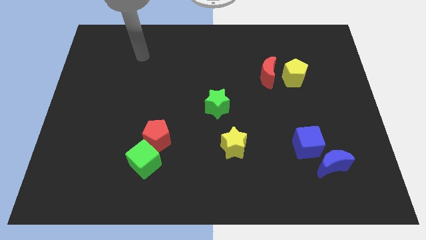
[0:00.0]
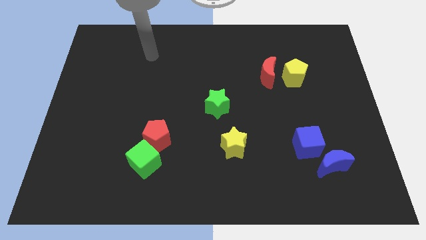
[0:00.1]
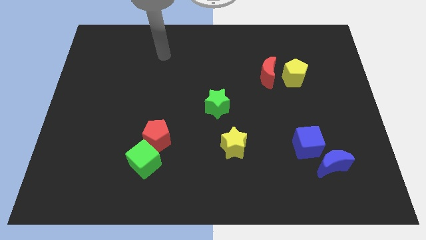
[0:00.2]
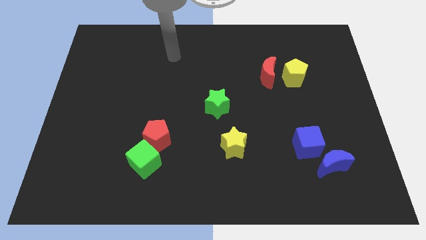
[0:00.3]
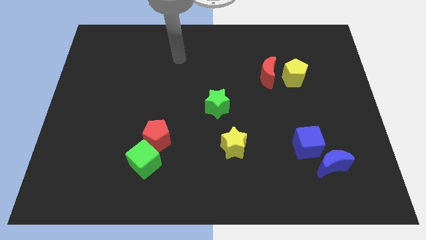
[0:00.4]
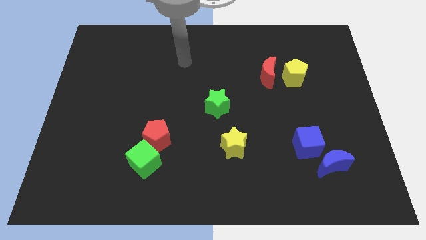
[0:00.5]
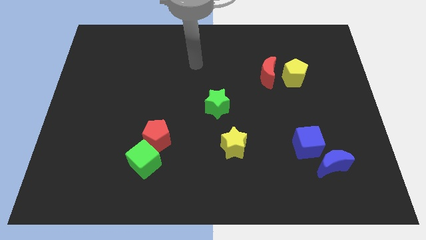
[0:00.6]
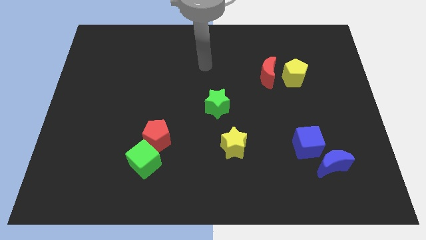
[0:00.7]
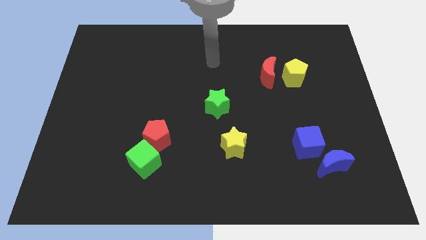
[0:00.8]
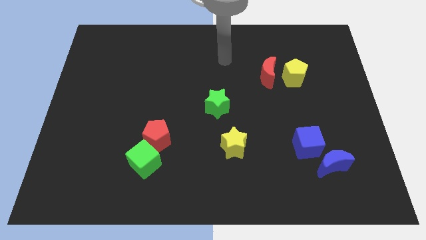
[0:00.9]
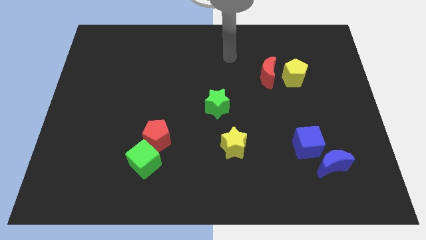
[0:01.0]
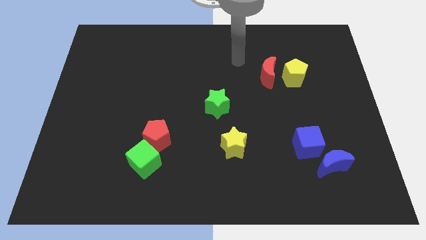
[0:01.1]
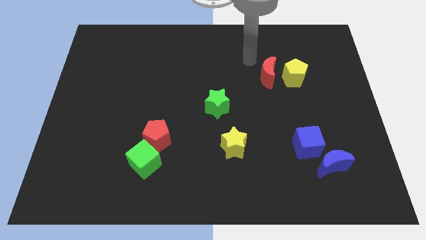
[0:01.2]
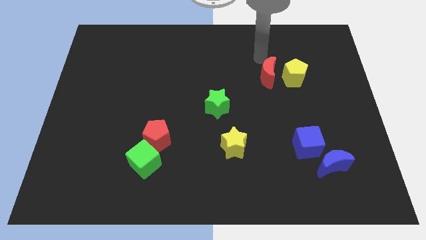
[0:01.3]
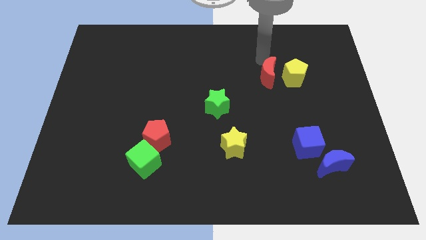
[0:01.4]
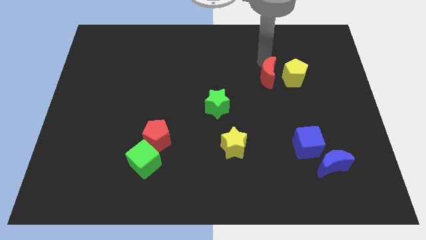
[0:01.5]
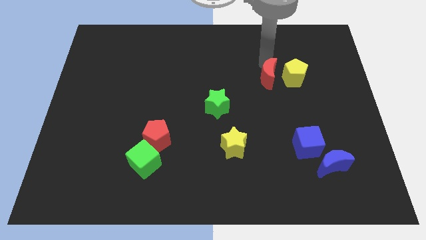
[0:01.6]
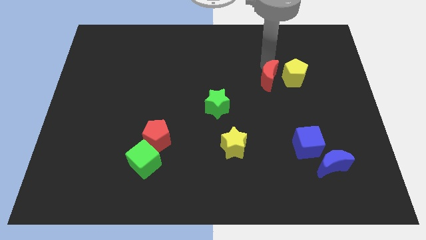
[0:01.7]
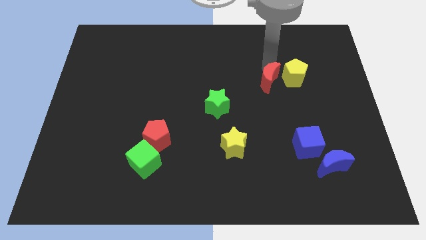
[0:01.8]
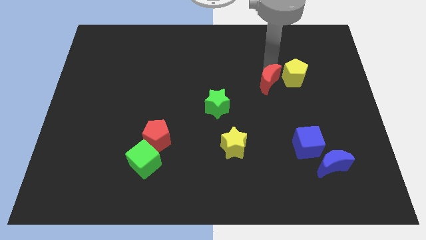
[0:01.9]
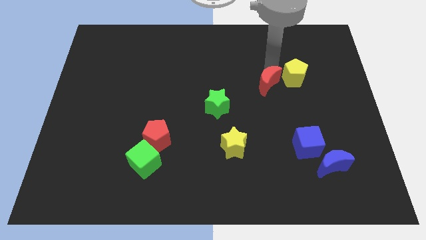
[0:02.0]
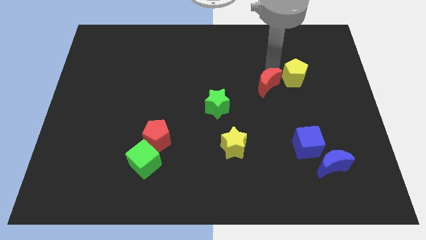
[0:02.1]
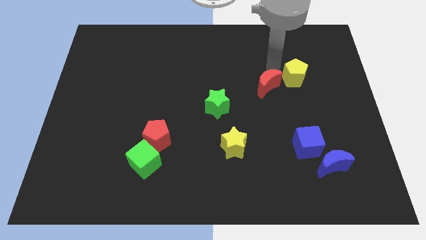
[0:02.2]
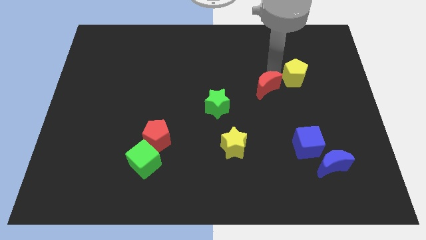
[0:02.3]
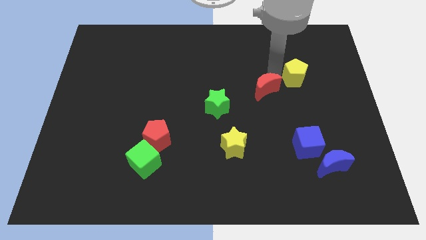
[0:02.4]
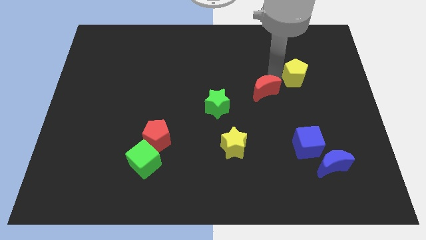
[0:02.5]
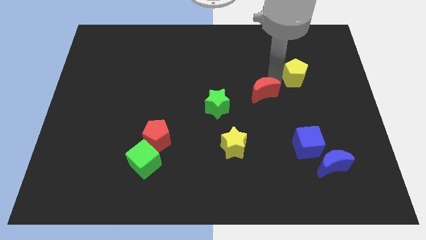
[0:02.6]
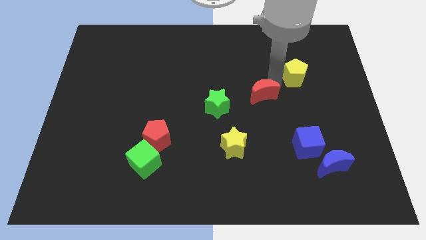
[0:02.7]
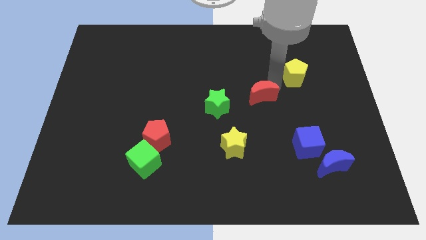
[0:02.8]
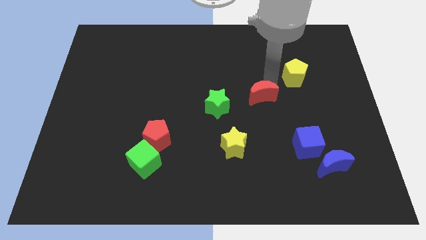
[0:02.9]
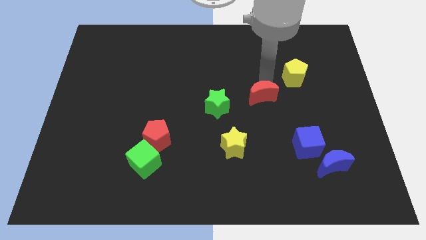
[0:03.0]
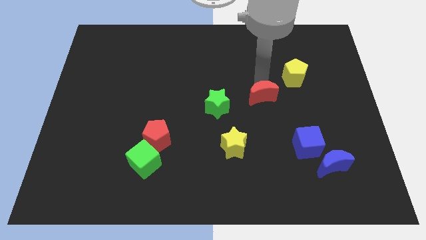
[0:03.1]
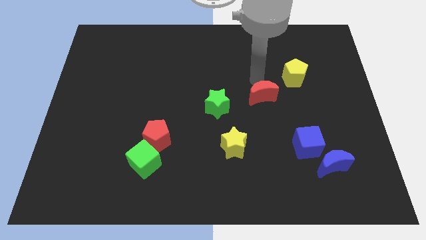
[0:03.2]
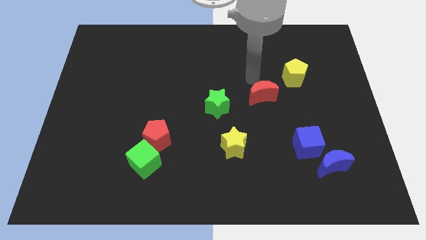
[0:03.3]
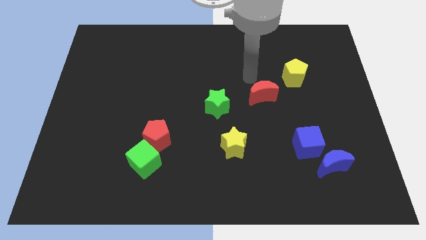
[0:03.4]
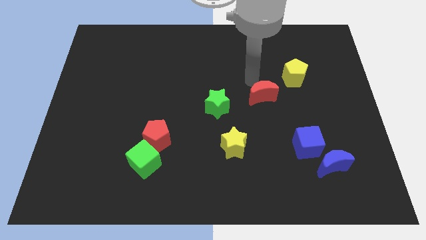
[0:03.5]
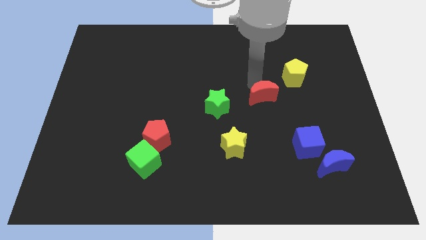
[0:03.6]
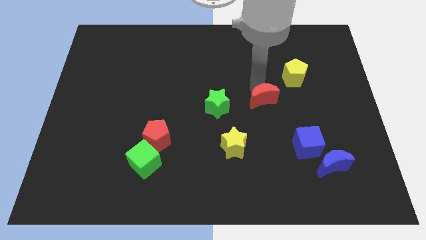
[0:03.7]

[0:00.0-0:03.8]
slide the red moon downwards slightly

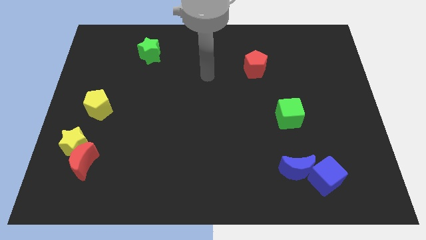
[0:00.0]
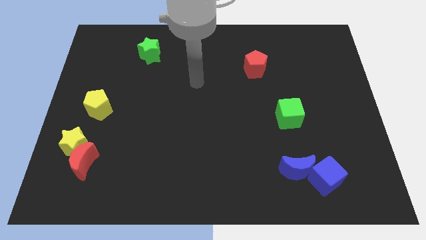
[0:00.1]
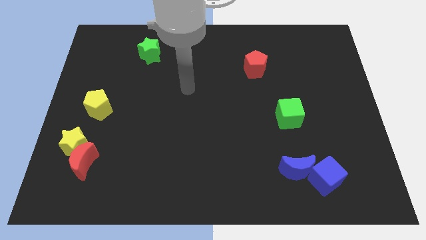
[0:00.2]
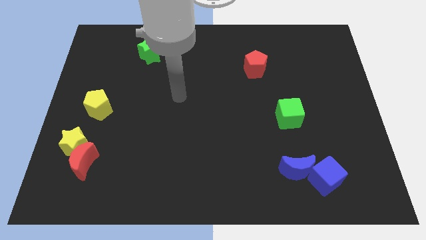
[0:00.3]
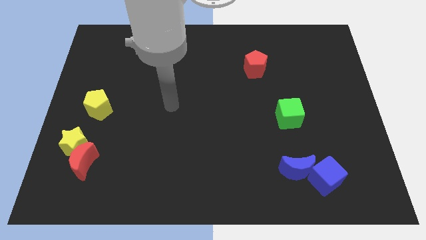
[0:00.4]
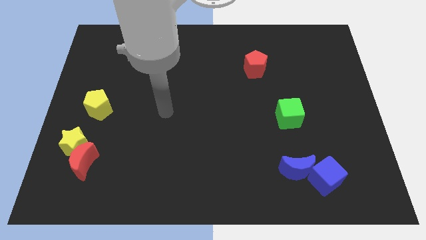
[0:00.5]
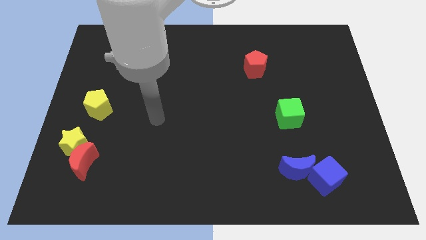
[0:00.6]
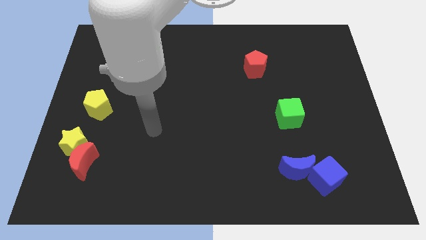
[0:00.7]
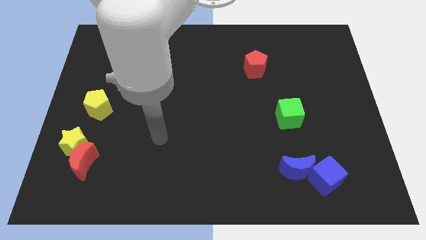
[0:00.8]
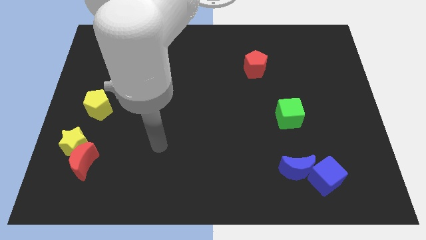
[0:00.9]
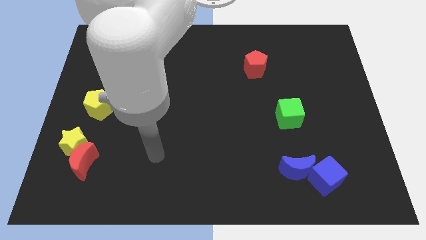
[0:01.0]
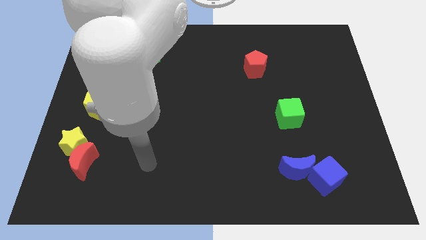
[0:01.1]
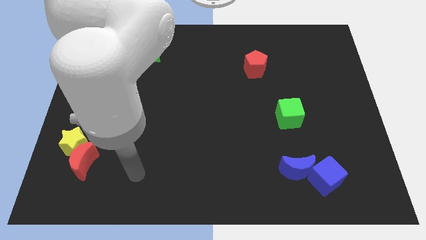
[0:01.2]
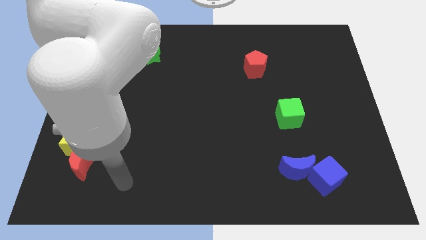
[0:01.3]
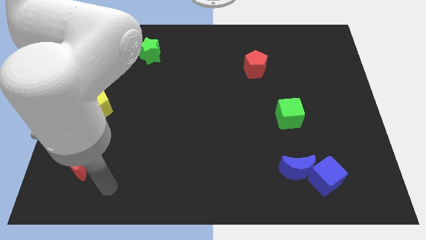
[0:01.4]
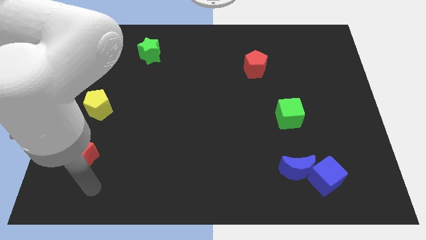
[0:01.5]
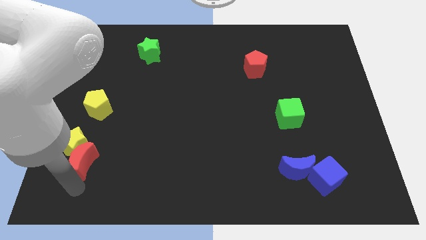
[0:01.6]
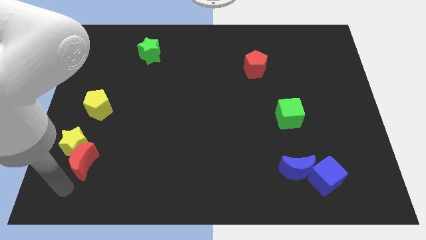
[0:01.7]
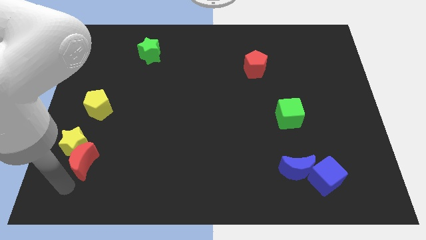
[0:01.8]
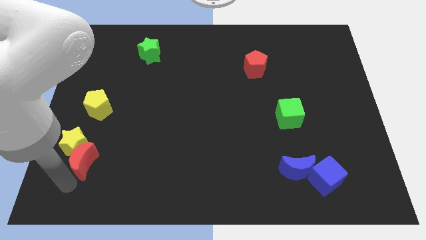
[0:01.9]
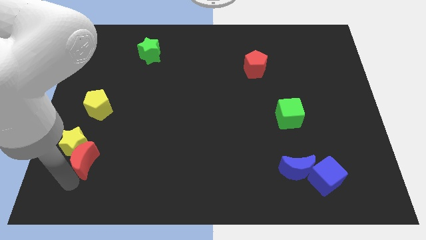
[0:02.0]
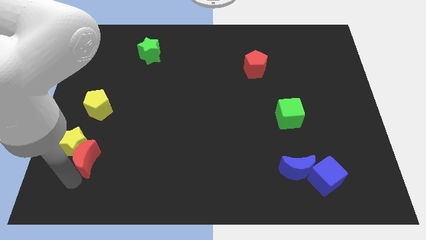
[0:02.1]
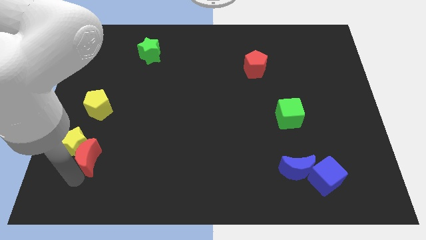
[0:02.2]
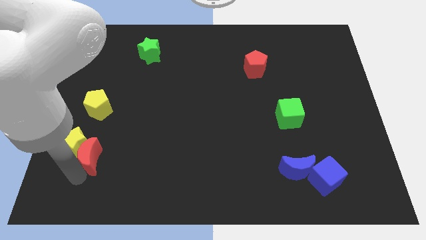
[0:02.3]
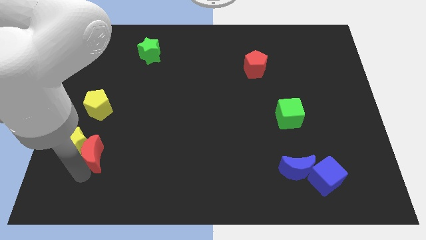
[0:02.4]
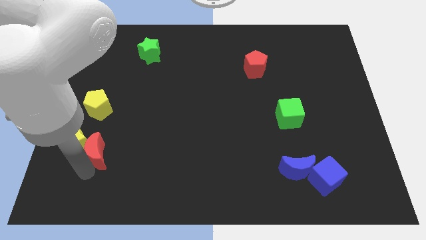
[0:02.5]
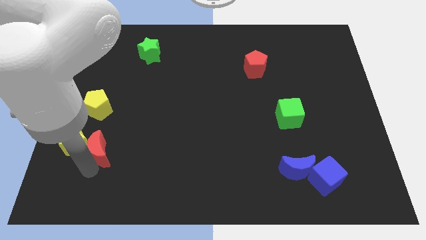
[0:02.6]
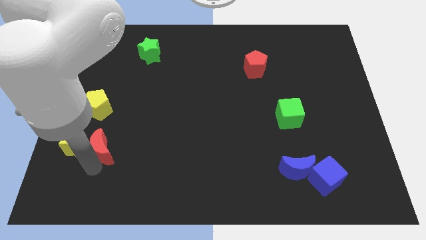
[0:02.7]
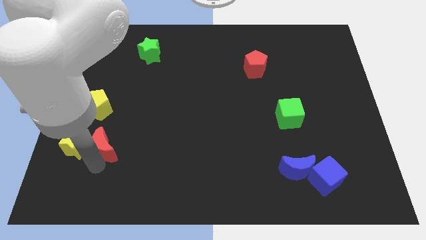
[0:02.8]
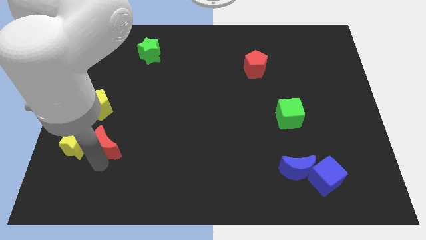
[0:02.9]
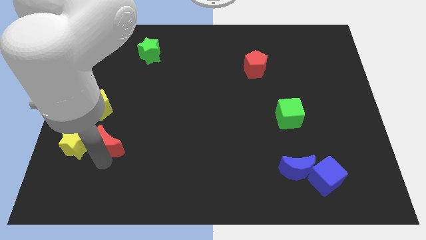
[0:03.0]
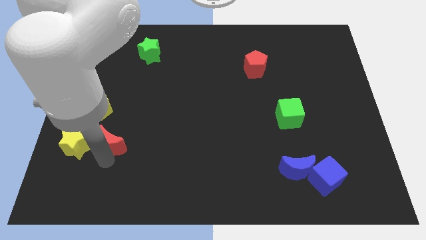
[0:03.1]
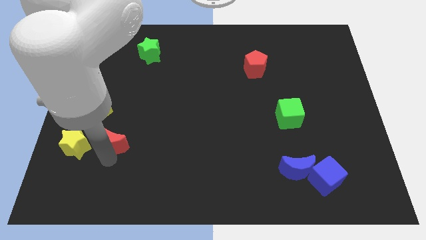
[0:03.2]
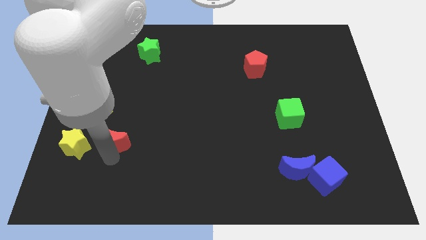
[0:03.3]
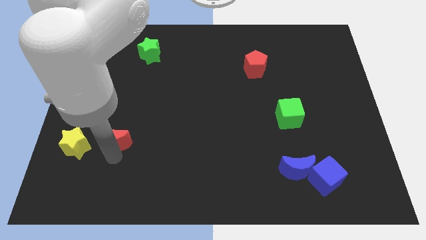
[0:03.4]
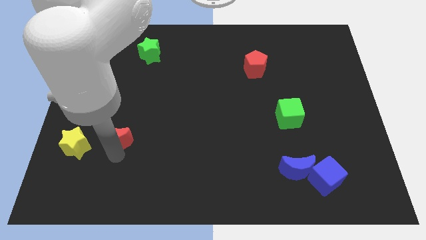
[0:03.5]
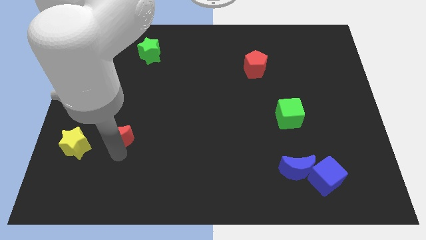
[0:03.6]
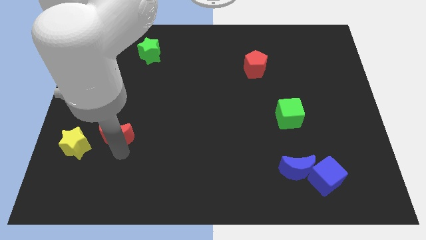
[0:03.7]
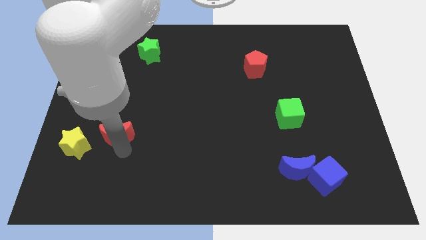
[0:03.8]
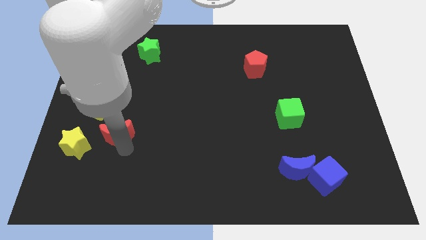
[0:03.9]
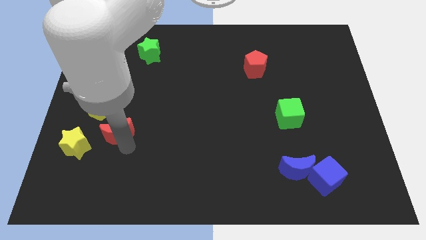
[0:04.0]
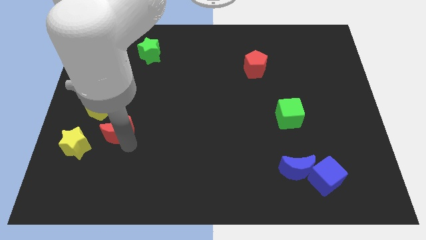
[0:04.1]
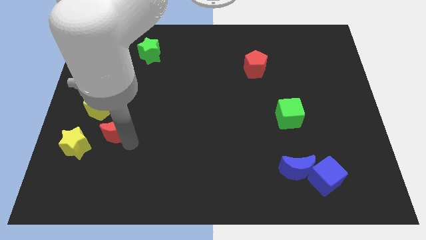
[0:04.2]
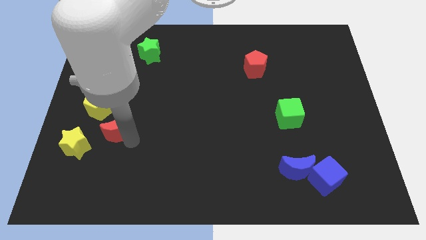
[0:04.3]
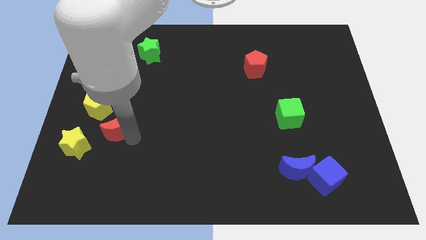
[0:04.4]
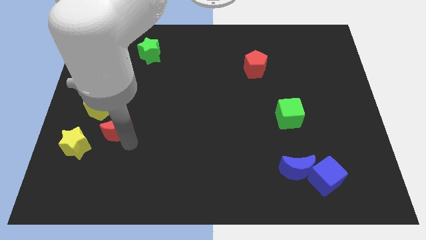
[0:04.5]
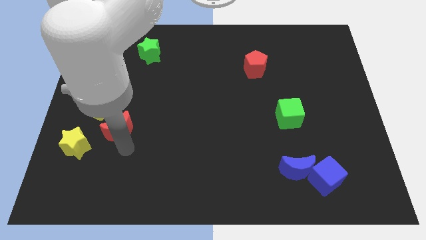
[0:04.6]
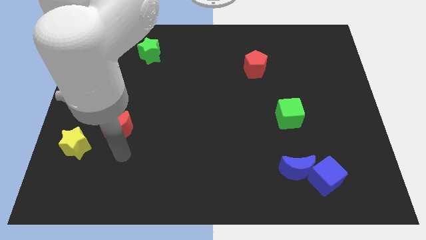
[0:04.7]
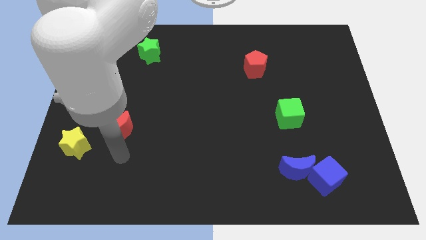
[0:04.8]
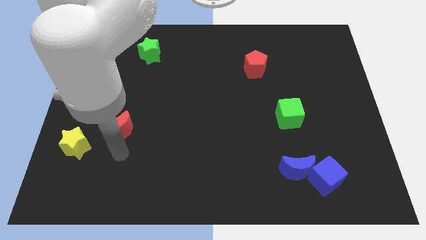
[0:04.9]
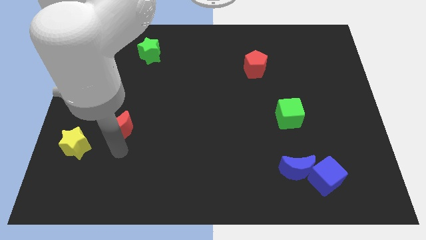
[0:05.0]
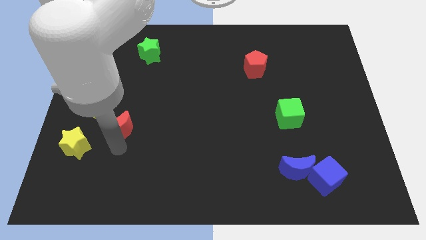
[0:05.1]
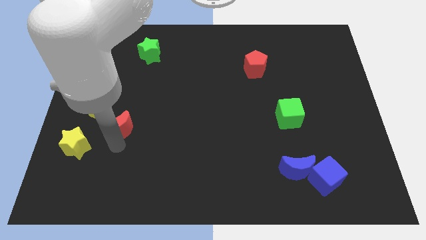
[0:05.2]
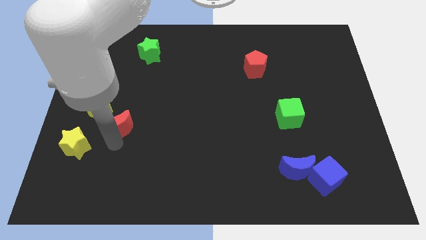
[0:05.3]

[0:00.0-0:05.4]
slide the red moon somewhat up
